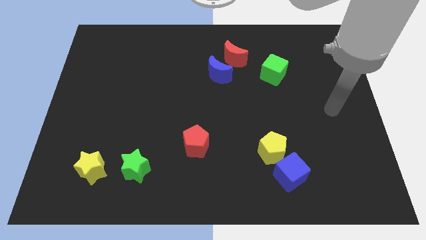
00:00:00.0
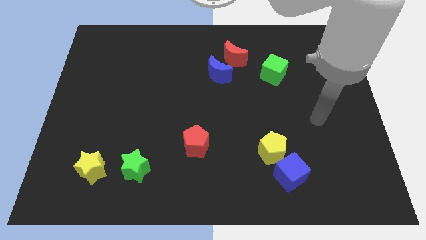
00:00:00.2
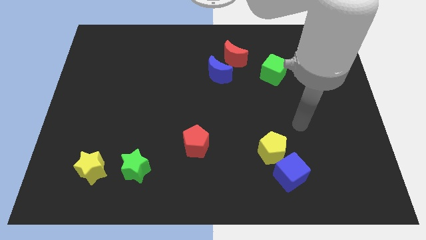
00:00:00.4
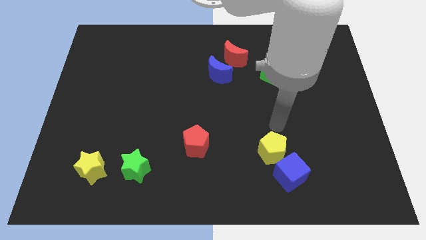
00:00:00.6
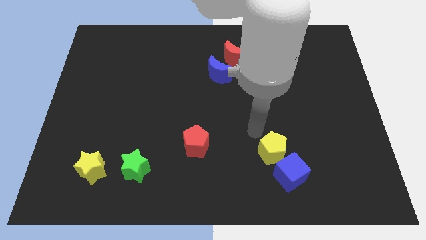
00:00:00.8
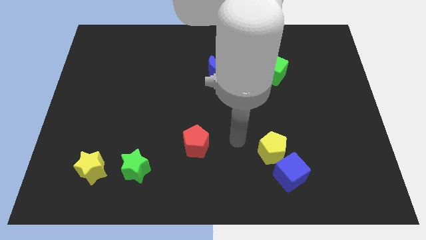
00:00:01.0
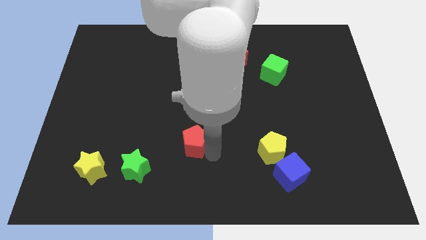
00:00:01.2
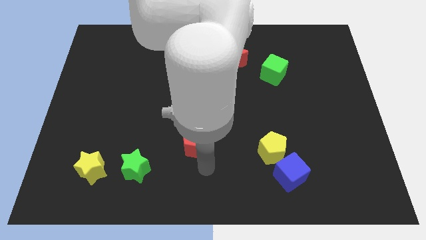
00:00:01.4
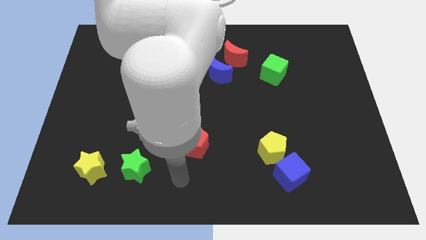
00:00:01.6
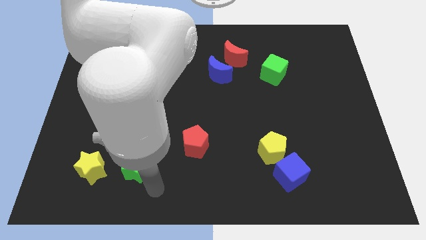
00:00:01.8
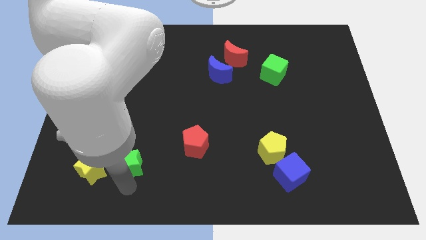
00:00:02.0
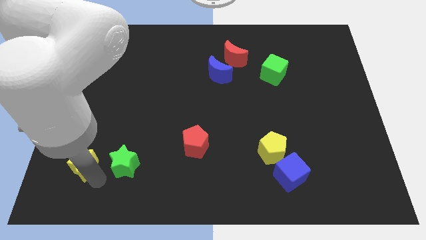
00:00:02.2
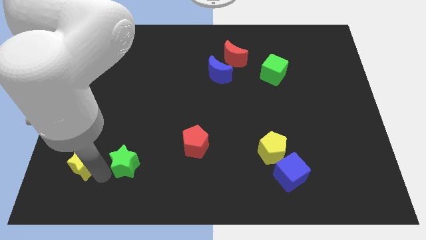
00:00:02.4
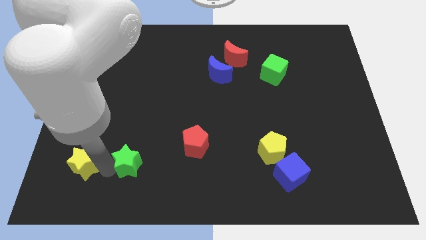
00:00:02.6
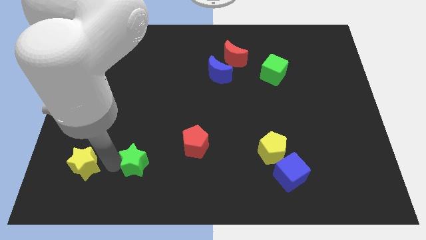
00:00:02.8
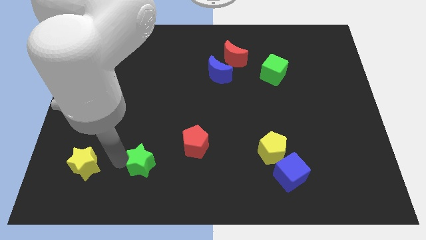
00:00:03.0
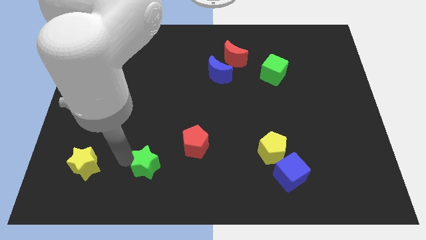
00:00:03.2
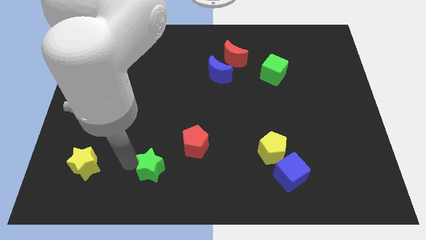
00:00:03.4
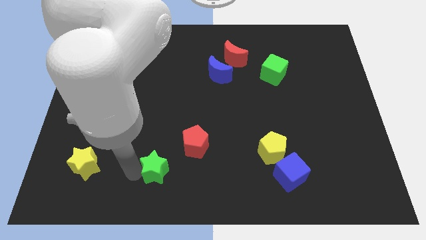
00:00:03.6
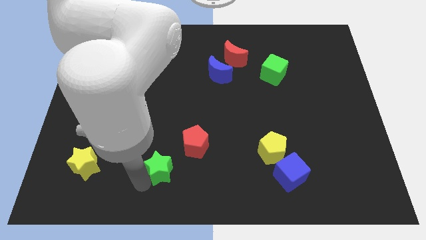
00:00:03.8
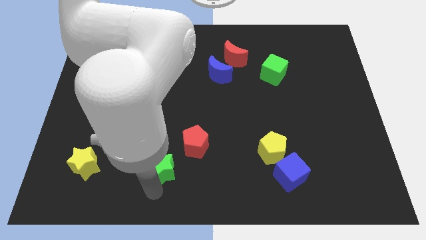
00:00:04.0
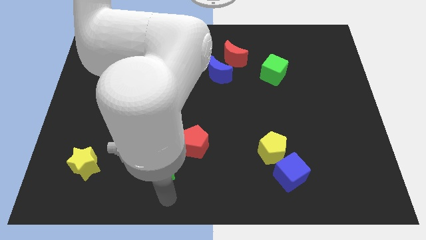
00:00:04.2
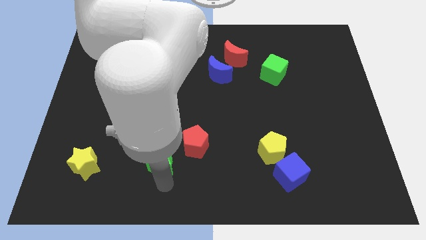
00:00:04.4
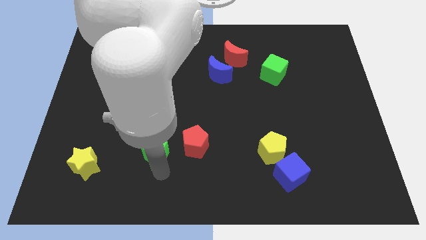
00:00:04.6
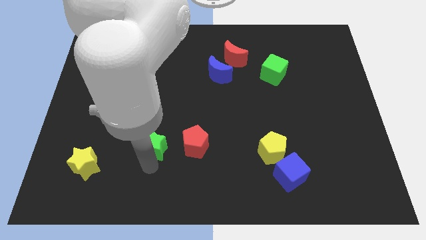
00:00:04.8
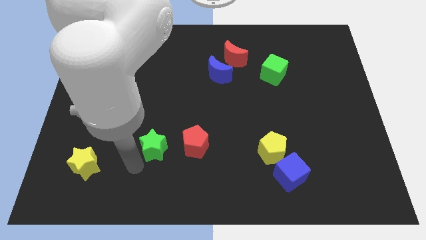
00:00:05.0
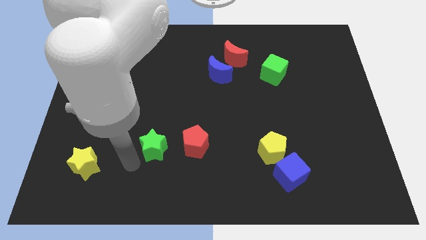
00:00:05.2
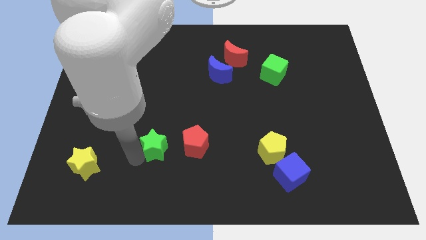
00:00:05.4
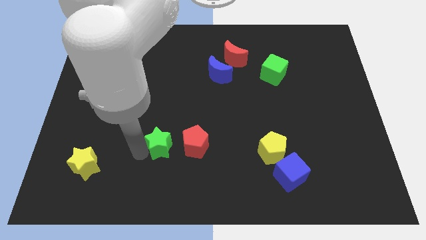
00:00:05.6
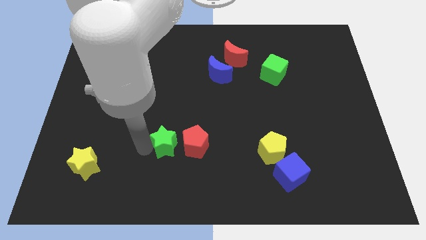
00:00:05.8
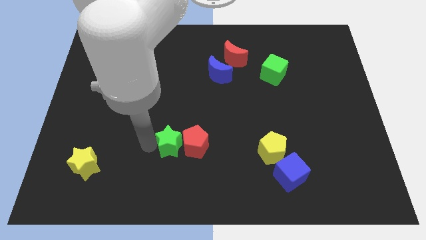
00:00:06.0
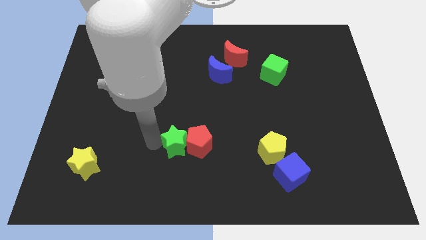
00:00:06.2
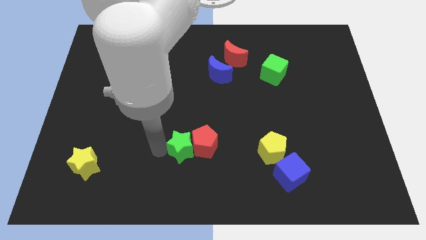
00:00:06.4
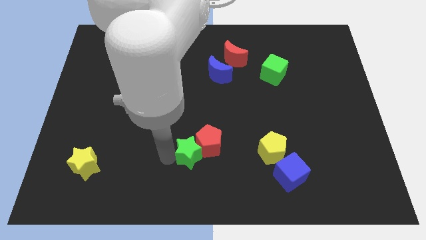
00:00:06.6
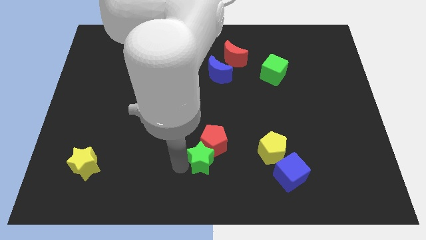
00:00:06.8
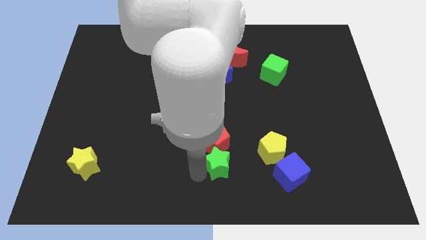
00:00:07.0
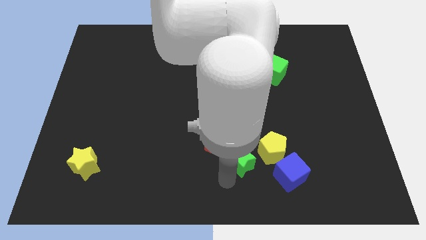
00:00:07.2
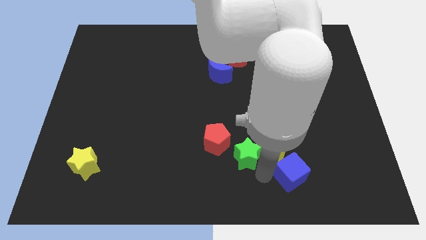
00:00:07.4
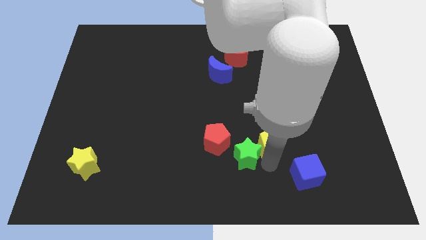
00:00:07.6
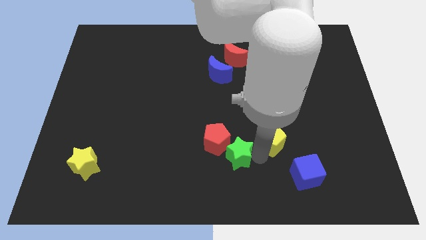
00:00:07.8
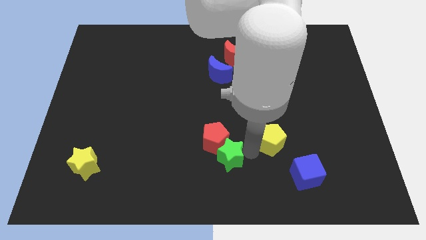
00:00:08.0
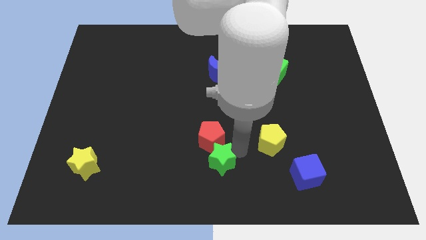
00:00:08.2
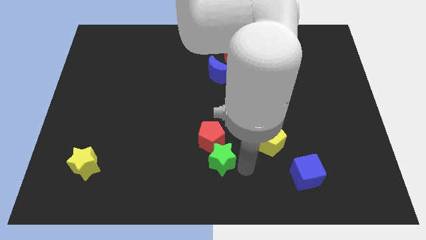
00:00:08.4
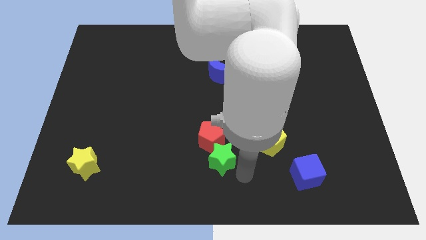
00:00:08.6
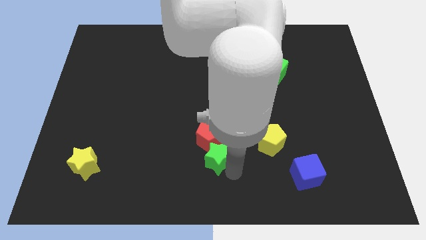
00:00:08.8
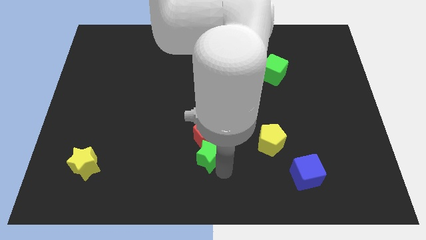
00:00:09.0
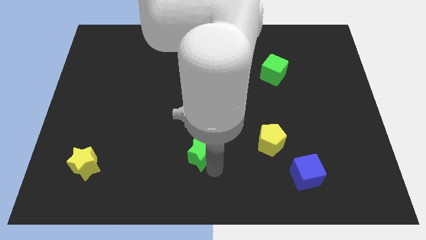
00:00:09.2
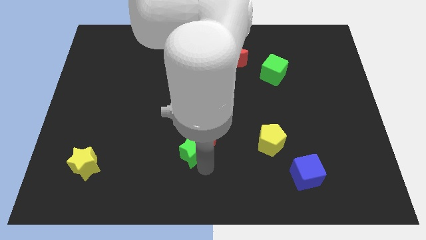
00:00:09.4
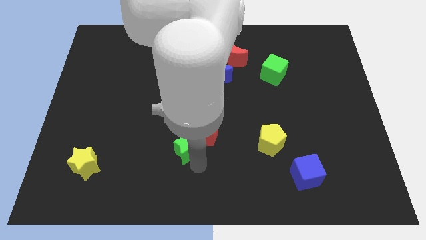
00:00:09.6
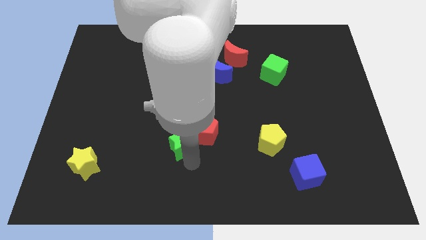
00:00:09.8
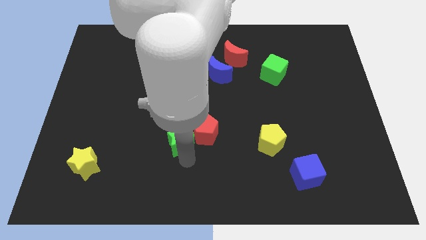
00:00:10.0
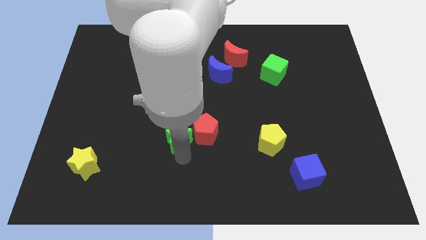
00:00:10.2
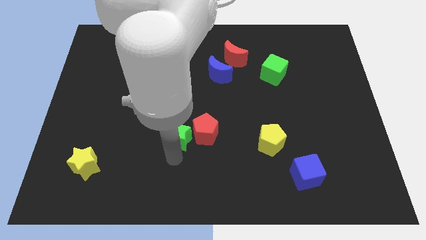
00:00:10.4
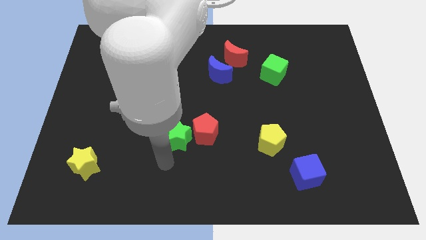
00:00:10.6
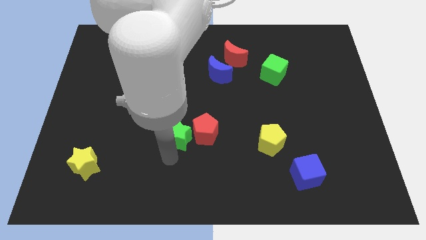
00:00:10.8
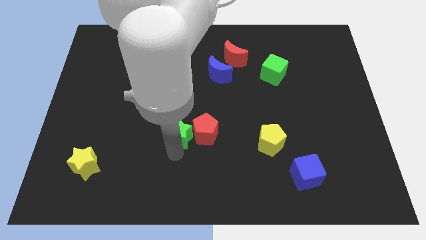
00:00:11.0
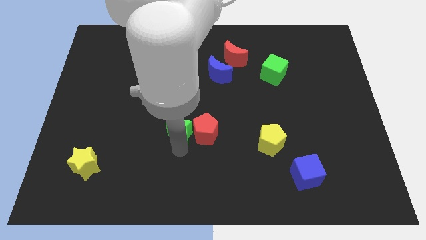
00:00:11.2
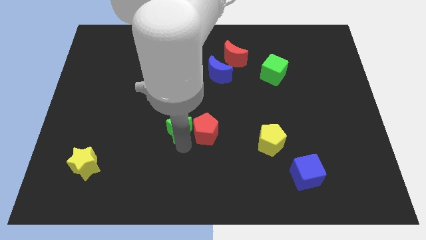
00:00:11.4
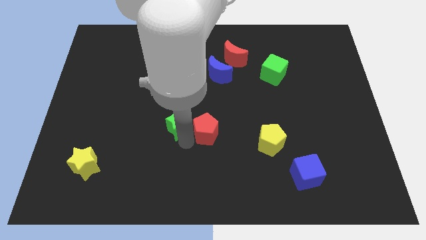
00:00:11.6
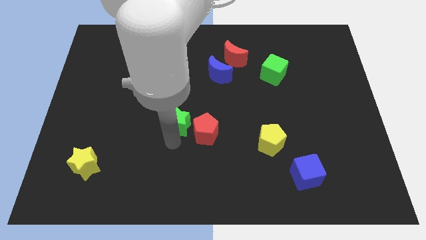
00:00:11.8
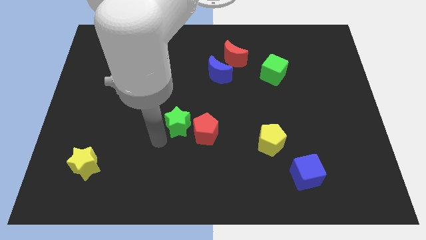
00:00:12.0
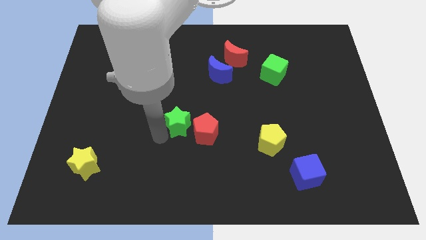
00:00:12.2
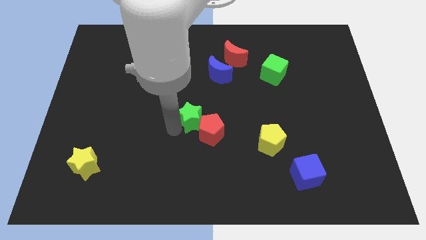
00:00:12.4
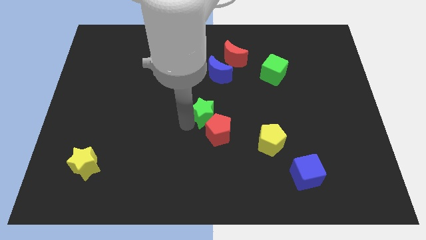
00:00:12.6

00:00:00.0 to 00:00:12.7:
push the green star diagonally up and right

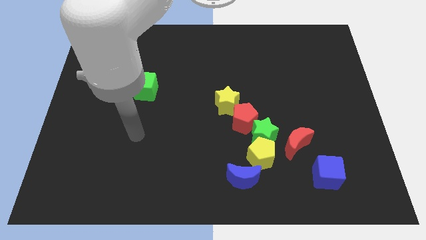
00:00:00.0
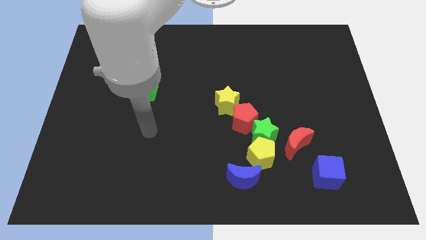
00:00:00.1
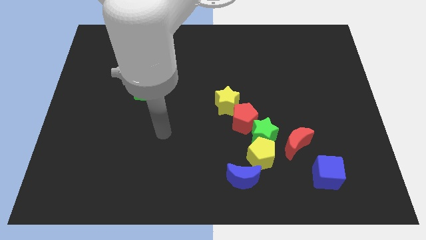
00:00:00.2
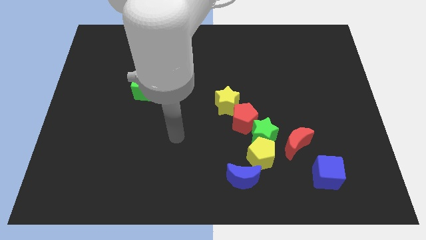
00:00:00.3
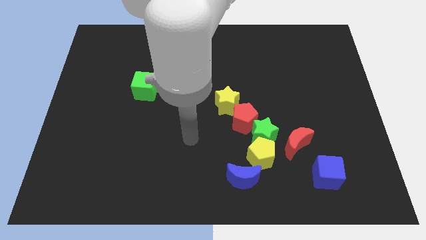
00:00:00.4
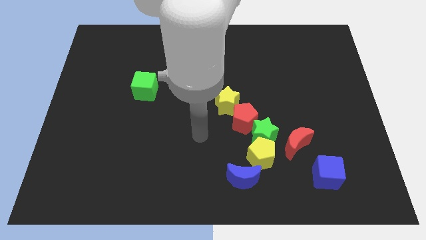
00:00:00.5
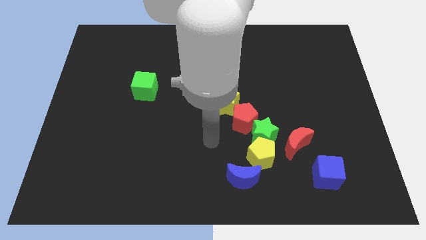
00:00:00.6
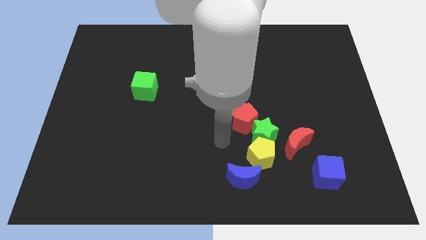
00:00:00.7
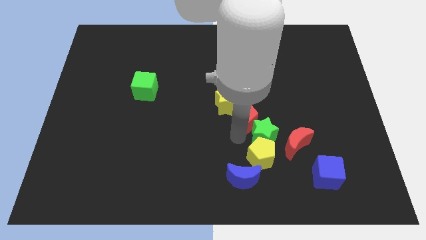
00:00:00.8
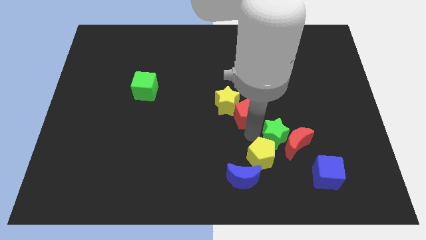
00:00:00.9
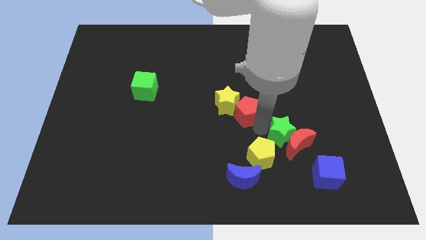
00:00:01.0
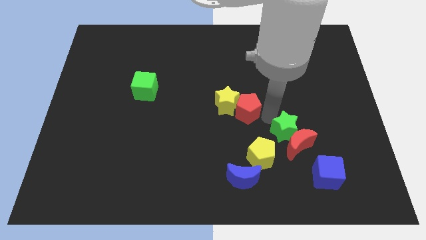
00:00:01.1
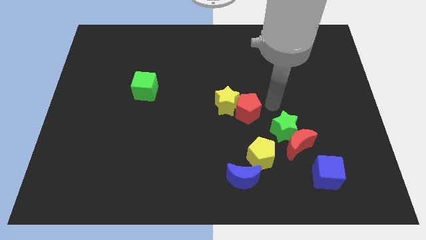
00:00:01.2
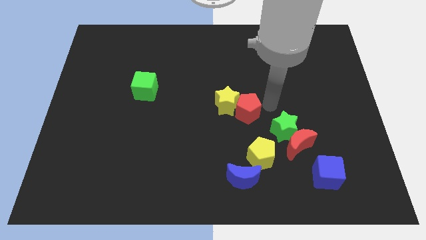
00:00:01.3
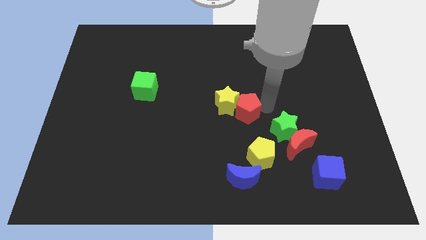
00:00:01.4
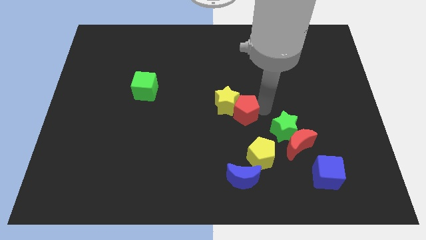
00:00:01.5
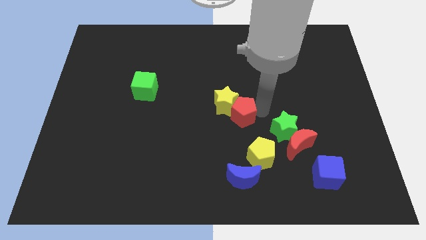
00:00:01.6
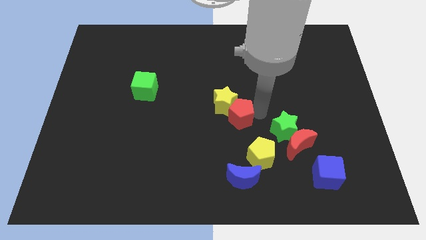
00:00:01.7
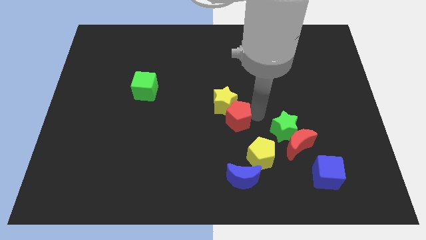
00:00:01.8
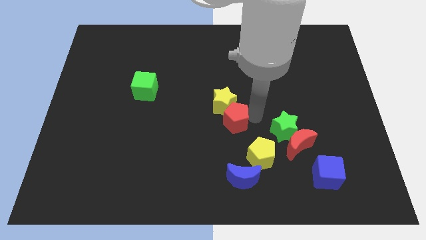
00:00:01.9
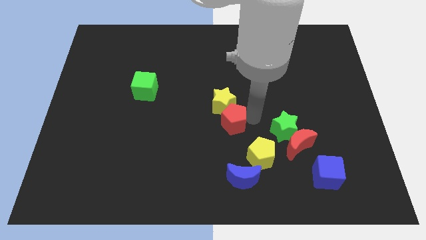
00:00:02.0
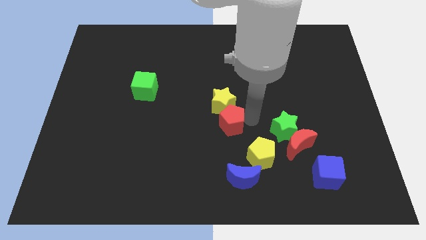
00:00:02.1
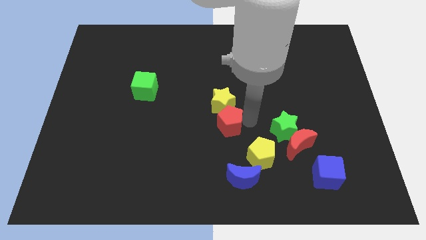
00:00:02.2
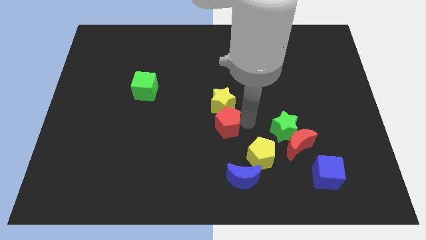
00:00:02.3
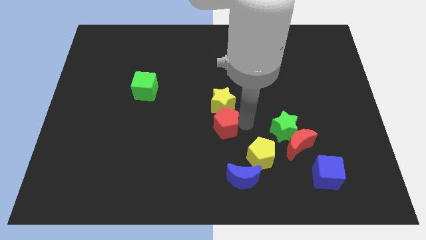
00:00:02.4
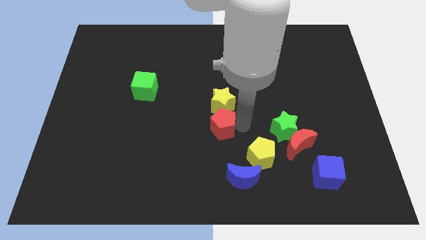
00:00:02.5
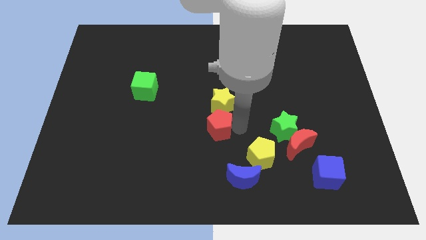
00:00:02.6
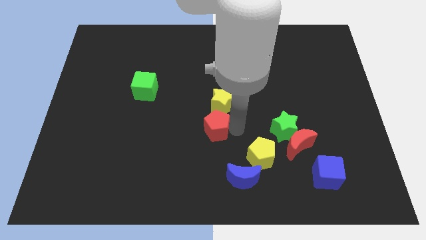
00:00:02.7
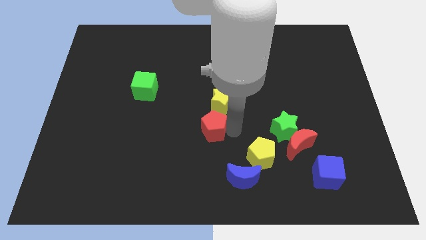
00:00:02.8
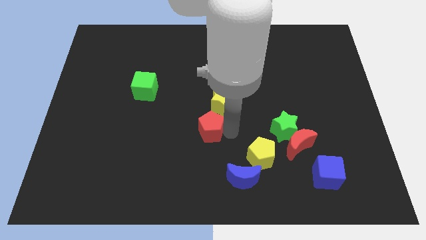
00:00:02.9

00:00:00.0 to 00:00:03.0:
slightly slide the red pentagon left
